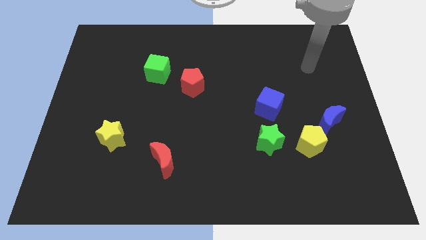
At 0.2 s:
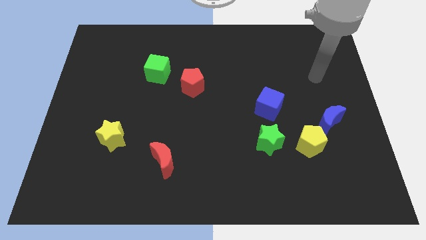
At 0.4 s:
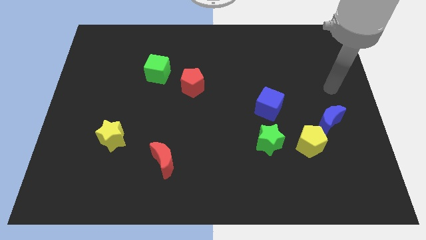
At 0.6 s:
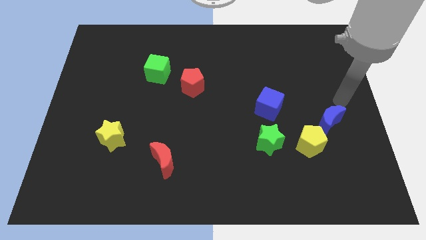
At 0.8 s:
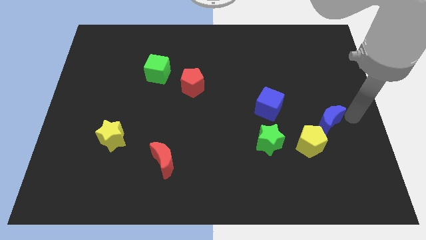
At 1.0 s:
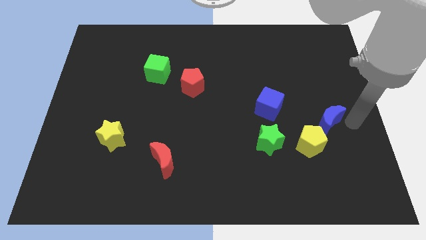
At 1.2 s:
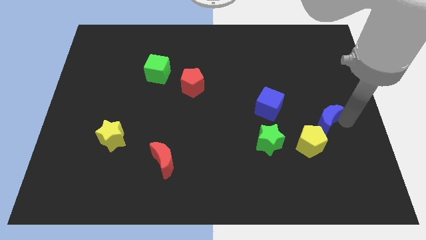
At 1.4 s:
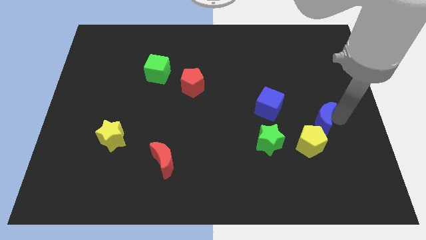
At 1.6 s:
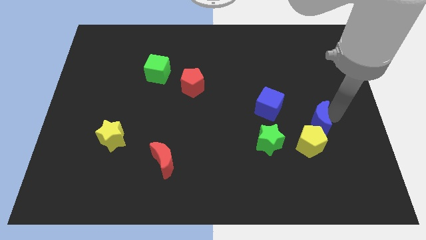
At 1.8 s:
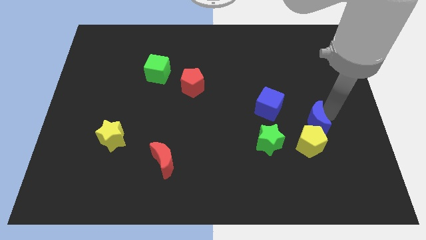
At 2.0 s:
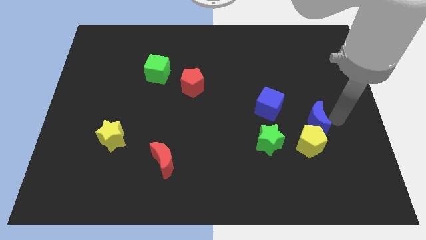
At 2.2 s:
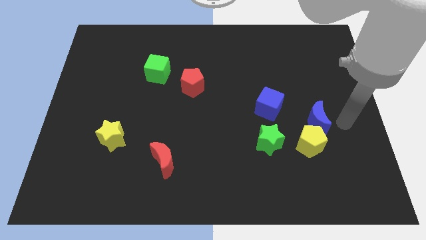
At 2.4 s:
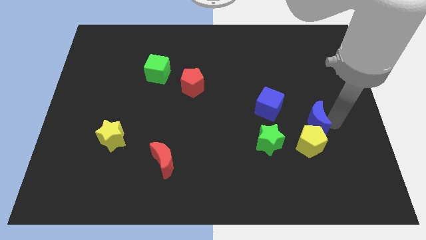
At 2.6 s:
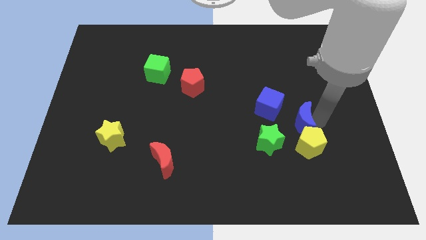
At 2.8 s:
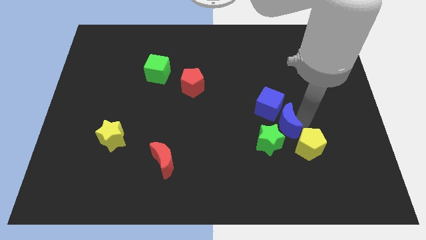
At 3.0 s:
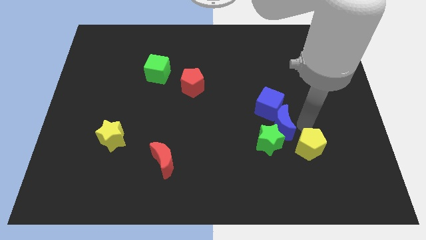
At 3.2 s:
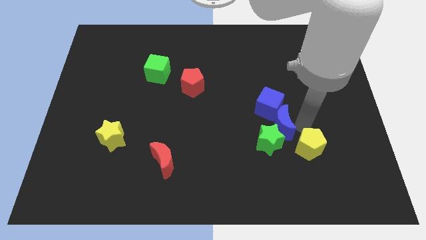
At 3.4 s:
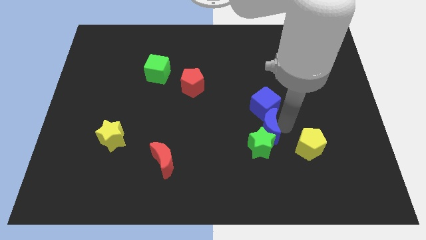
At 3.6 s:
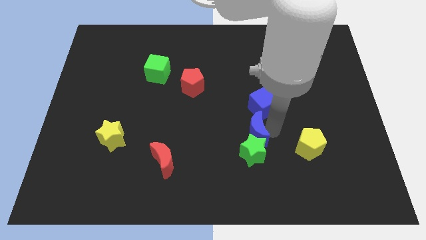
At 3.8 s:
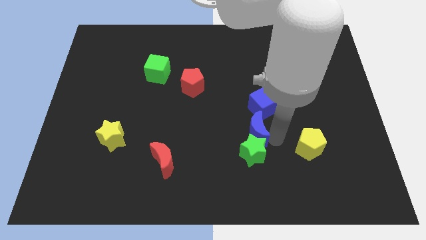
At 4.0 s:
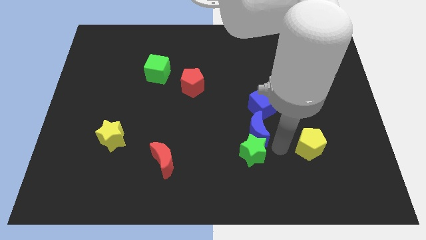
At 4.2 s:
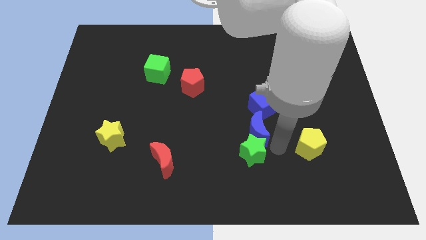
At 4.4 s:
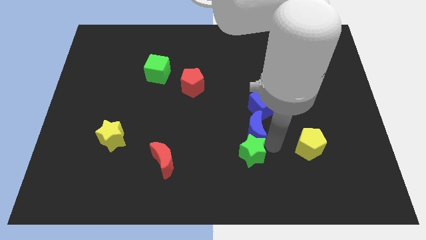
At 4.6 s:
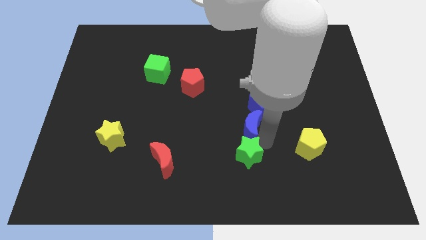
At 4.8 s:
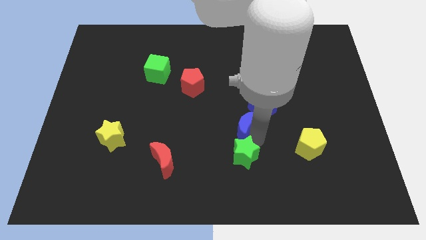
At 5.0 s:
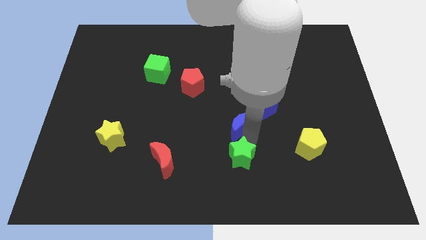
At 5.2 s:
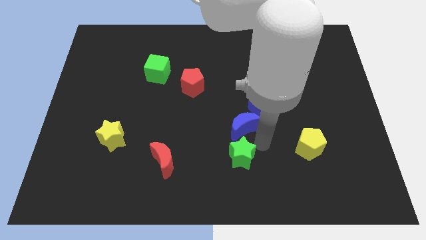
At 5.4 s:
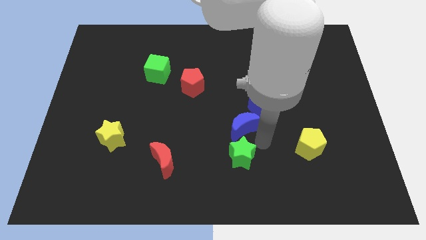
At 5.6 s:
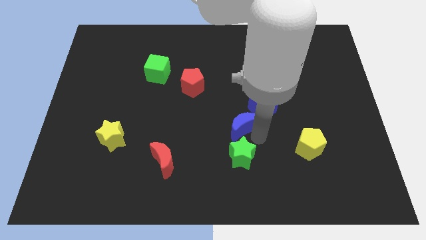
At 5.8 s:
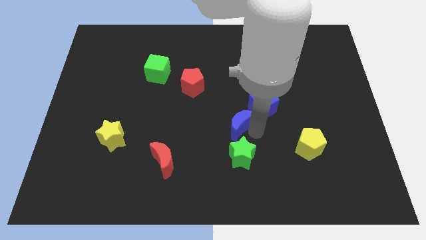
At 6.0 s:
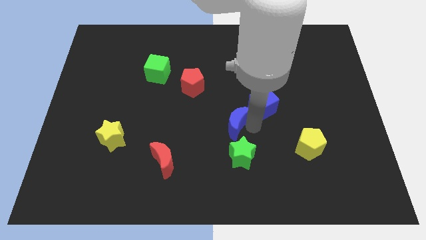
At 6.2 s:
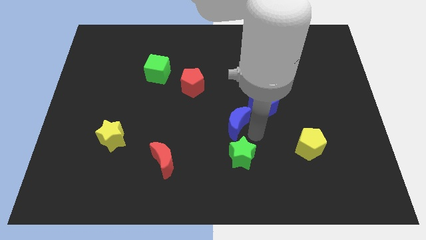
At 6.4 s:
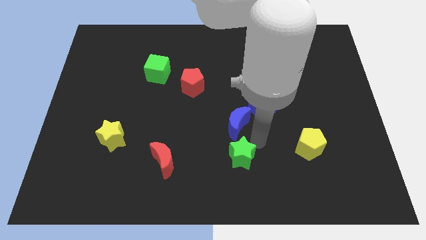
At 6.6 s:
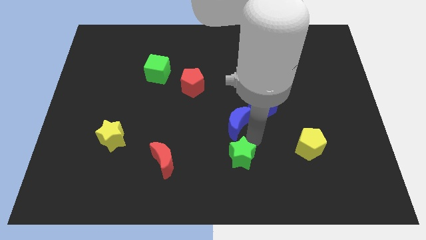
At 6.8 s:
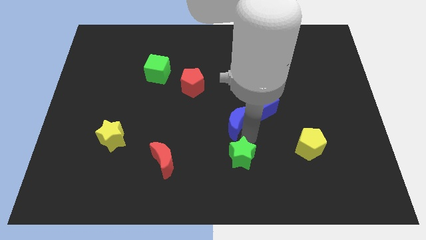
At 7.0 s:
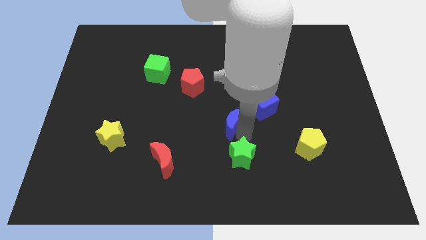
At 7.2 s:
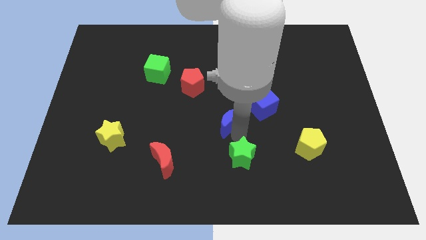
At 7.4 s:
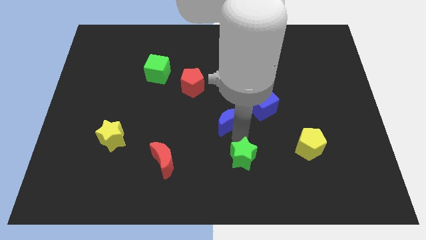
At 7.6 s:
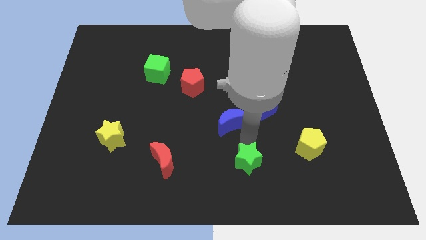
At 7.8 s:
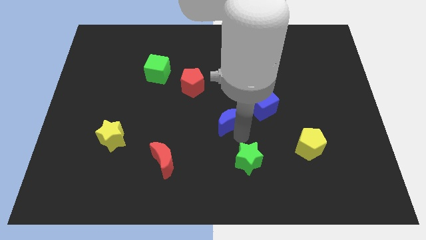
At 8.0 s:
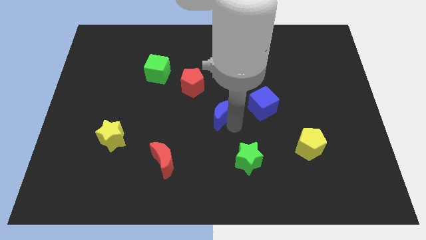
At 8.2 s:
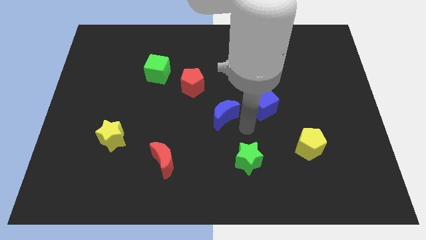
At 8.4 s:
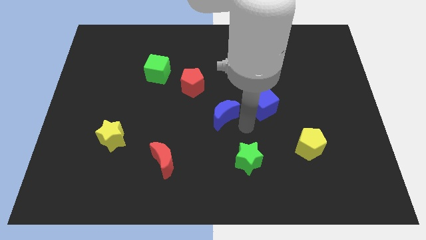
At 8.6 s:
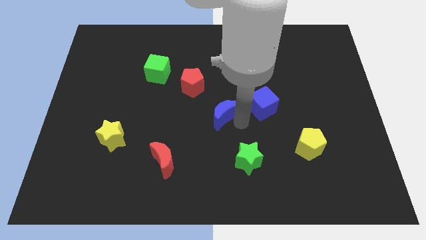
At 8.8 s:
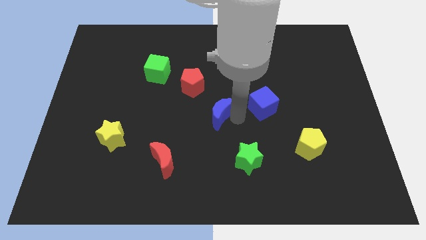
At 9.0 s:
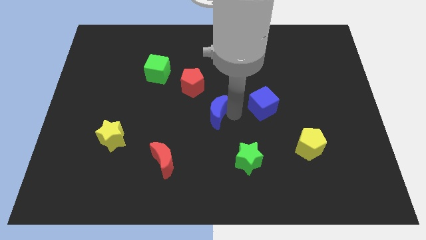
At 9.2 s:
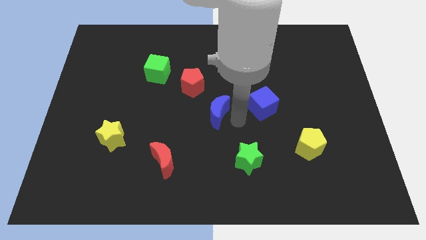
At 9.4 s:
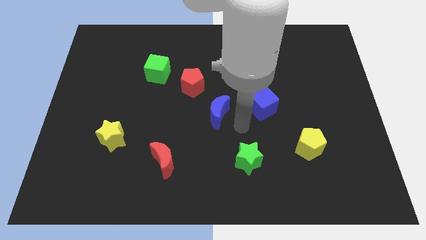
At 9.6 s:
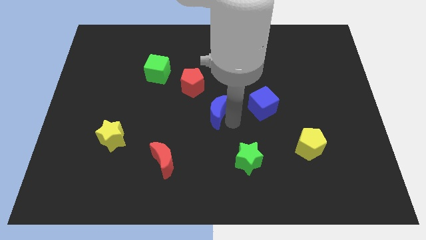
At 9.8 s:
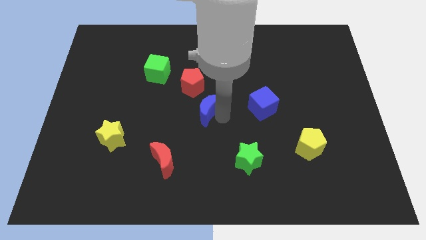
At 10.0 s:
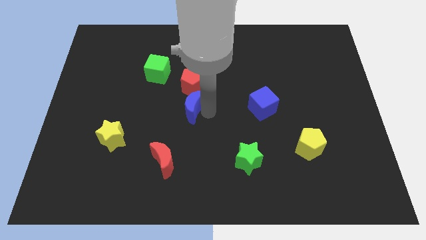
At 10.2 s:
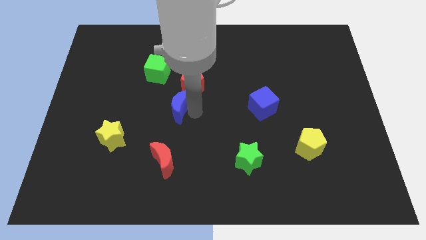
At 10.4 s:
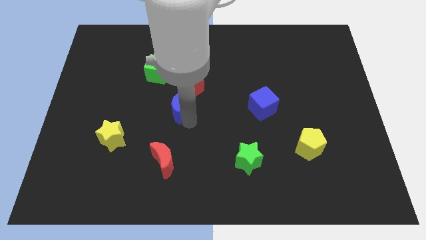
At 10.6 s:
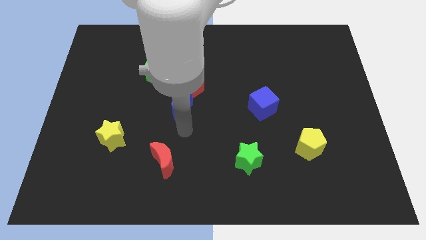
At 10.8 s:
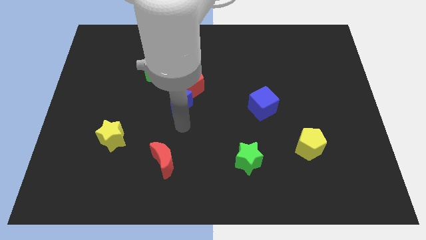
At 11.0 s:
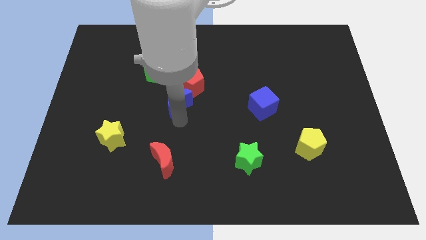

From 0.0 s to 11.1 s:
slide the blue moon to the bottom right of the green cube

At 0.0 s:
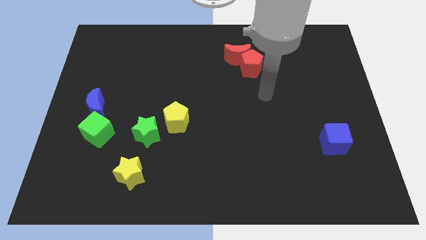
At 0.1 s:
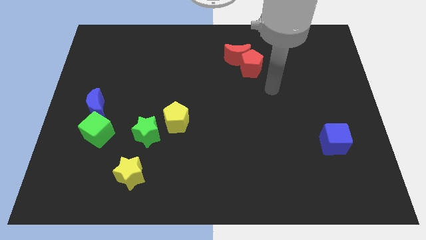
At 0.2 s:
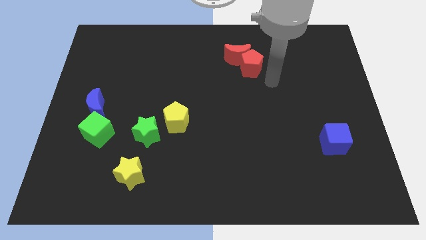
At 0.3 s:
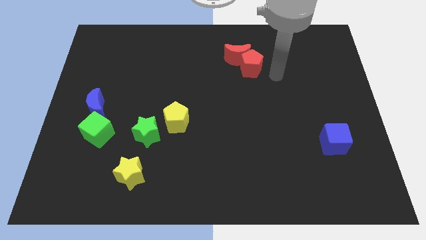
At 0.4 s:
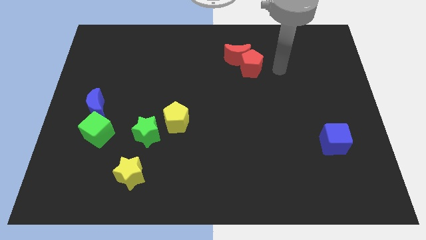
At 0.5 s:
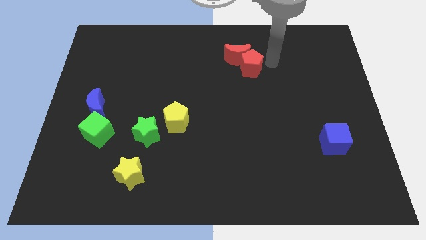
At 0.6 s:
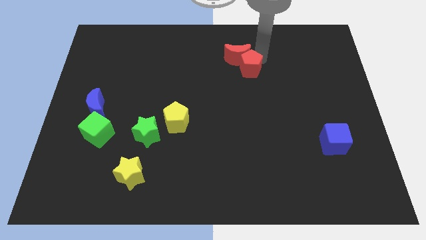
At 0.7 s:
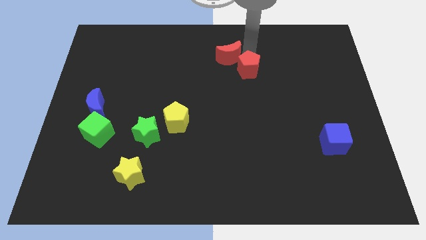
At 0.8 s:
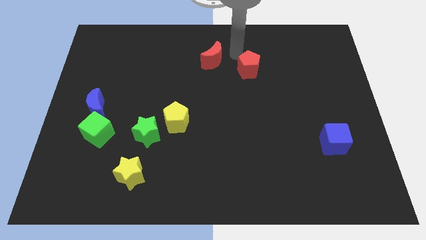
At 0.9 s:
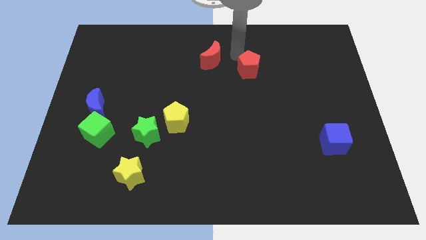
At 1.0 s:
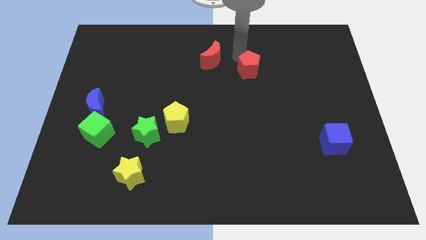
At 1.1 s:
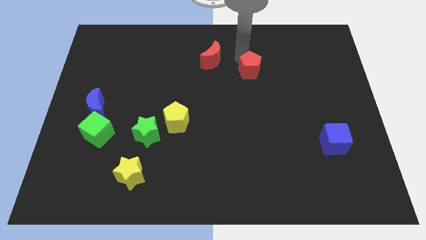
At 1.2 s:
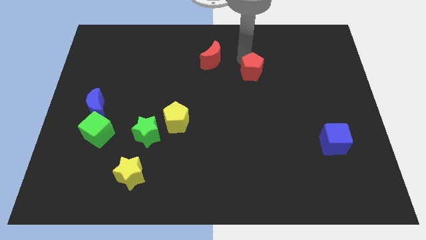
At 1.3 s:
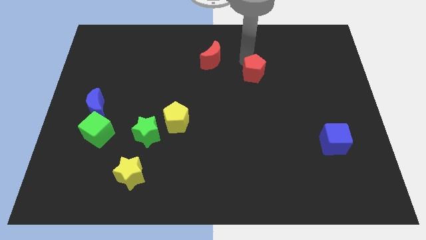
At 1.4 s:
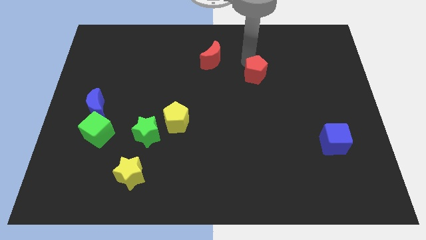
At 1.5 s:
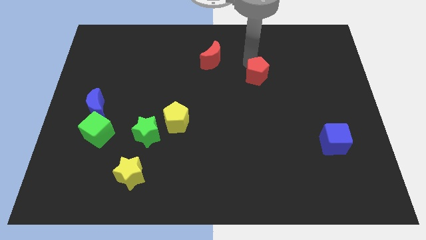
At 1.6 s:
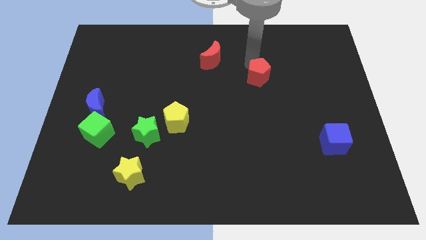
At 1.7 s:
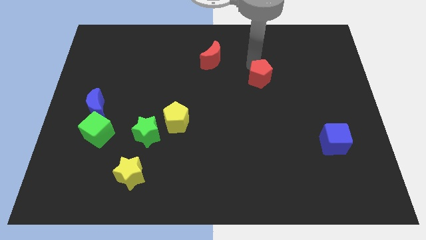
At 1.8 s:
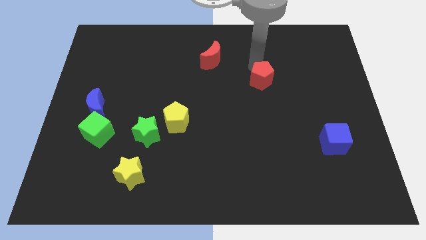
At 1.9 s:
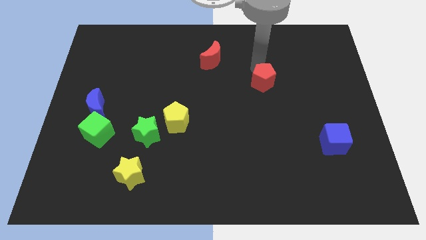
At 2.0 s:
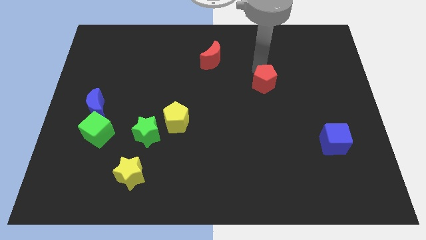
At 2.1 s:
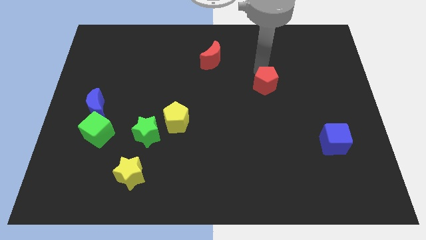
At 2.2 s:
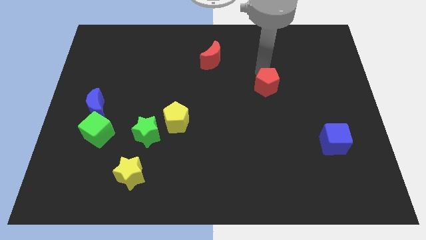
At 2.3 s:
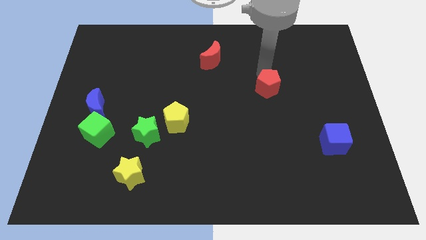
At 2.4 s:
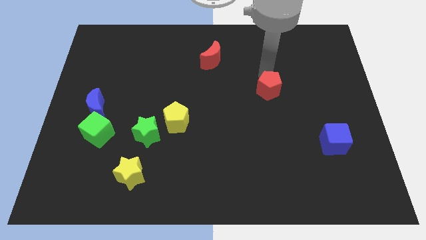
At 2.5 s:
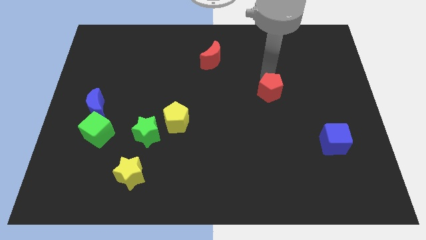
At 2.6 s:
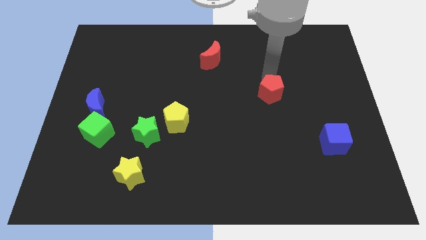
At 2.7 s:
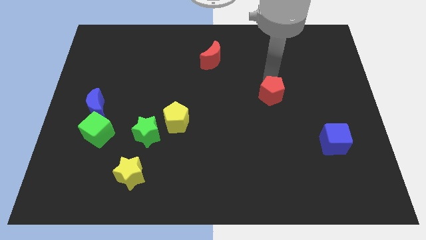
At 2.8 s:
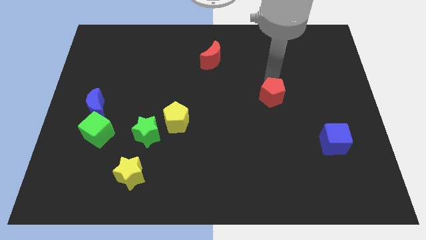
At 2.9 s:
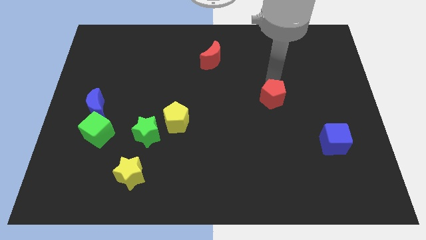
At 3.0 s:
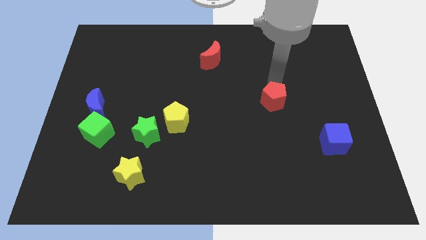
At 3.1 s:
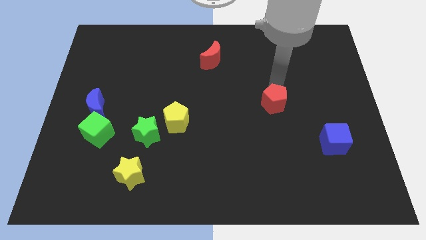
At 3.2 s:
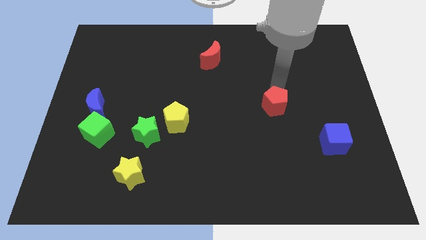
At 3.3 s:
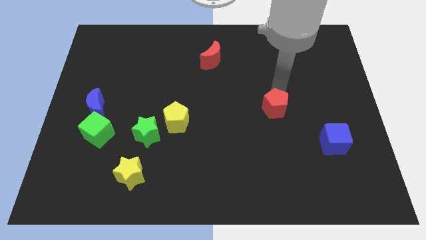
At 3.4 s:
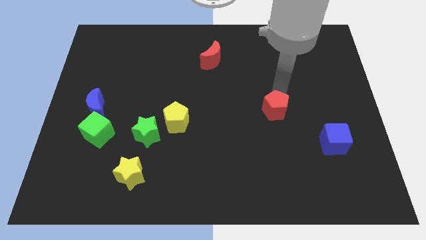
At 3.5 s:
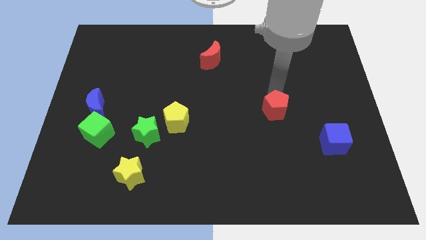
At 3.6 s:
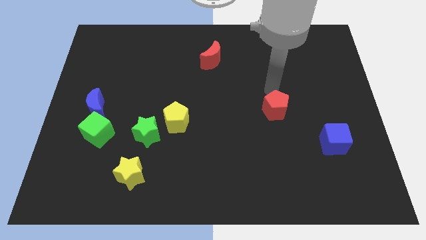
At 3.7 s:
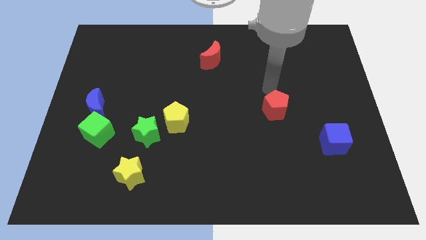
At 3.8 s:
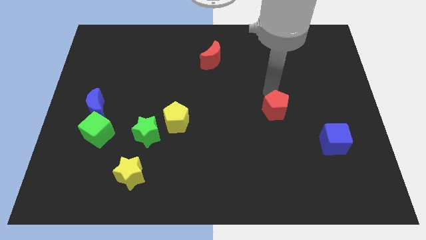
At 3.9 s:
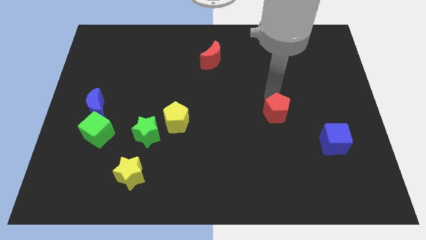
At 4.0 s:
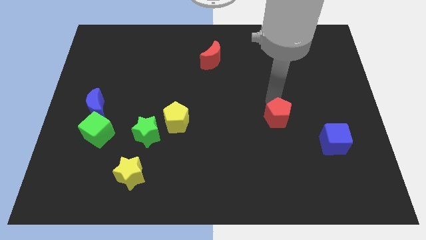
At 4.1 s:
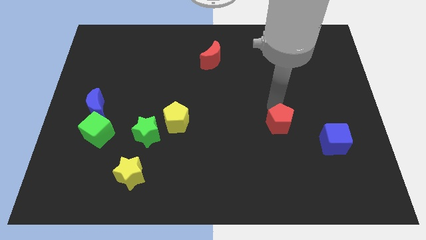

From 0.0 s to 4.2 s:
slide the red pentagon just left of the blue cube
